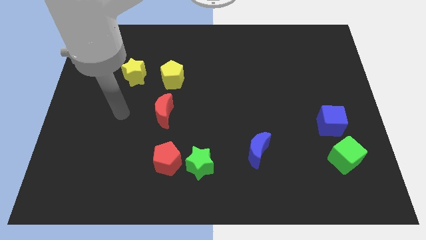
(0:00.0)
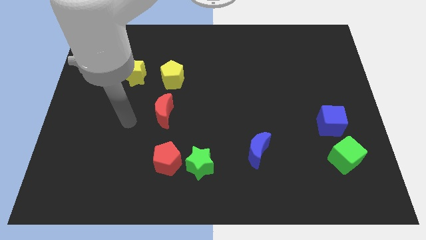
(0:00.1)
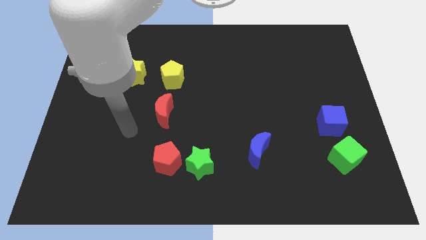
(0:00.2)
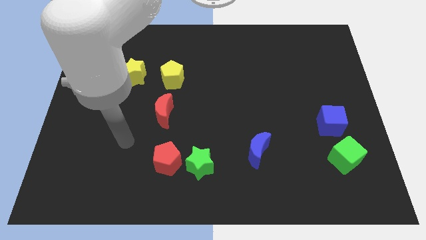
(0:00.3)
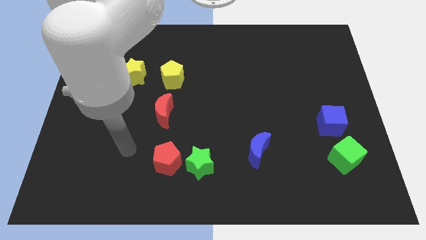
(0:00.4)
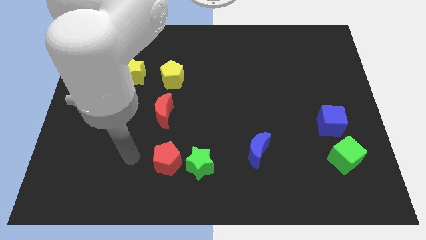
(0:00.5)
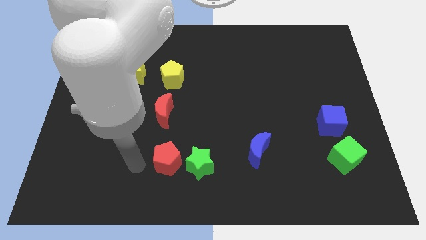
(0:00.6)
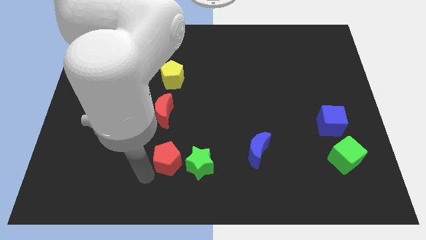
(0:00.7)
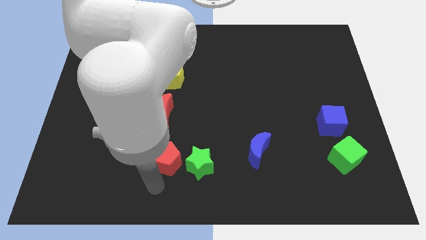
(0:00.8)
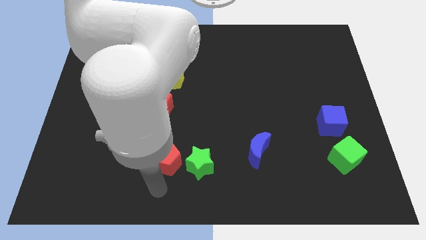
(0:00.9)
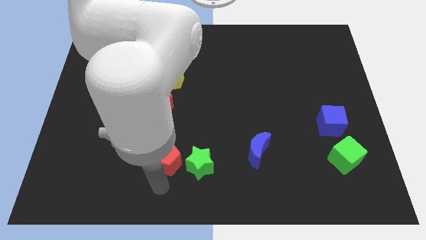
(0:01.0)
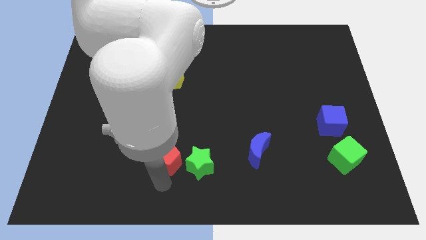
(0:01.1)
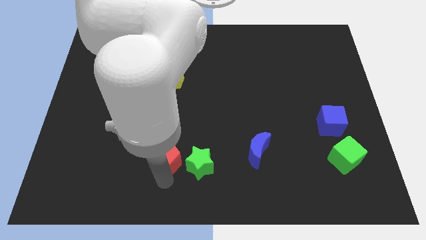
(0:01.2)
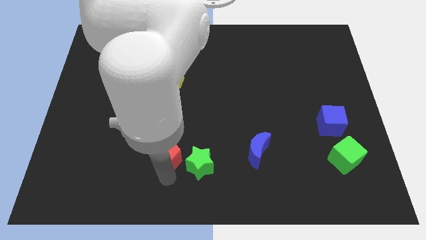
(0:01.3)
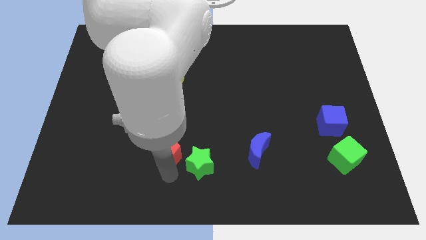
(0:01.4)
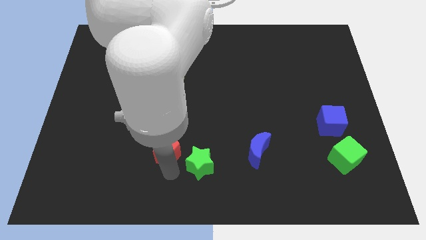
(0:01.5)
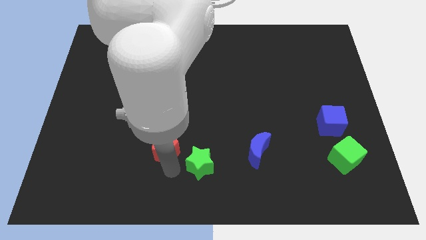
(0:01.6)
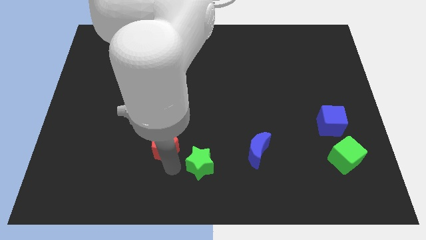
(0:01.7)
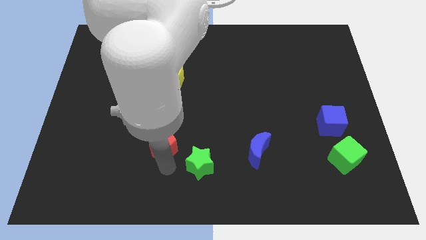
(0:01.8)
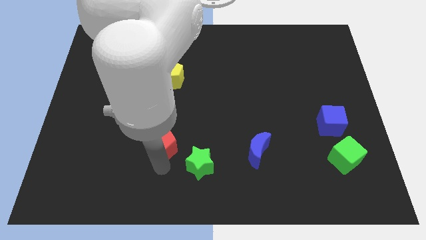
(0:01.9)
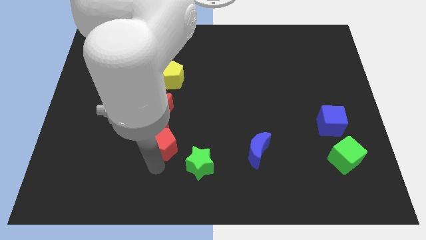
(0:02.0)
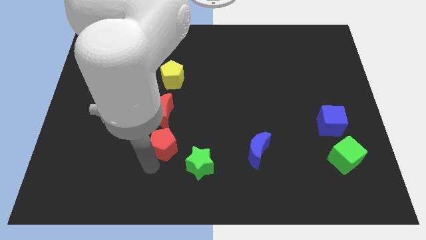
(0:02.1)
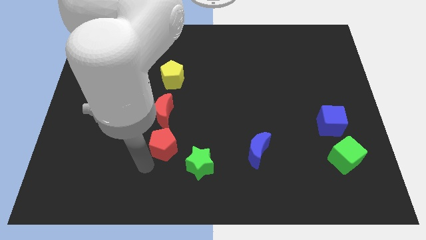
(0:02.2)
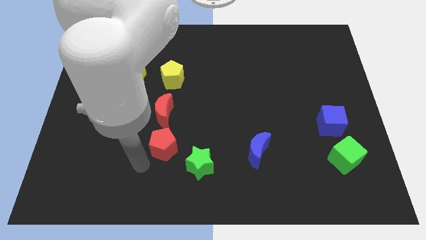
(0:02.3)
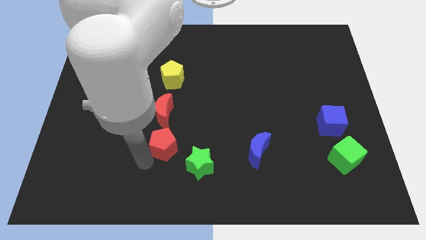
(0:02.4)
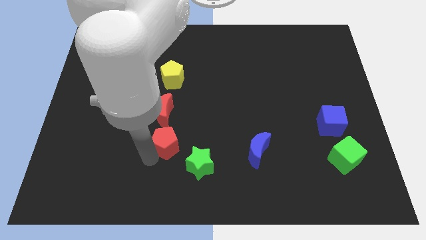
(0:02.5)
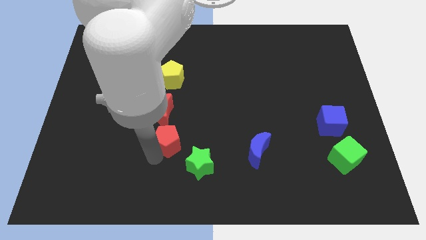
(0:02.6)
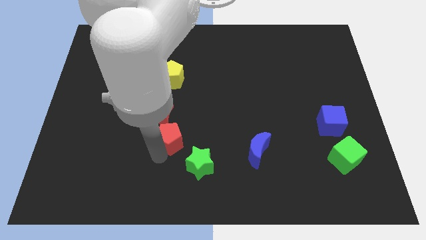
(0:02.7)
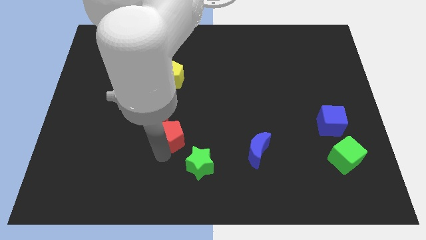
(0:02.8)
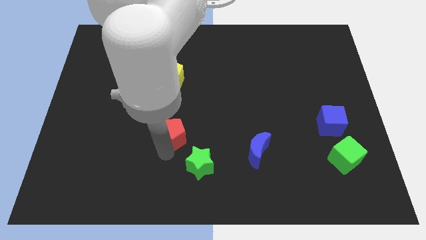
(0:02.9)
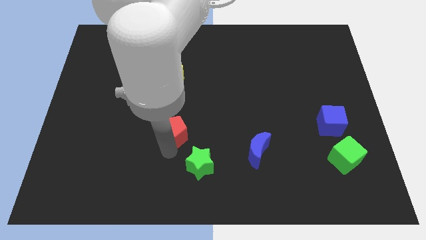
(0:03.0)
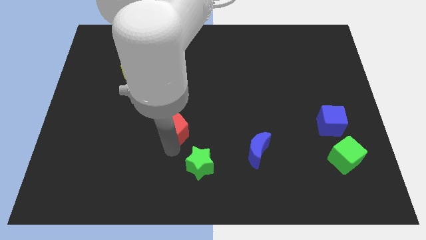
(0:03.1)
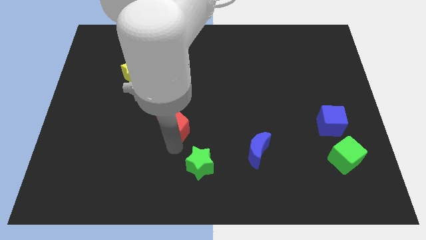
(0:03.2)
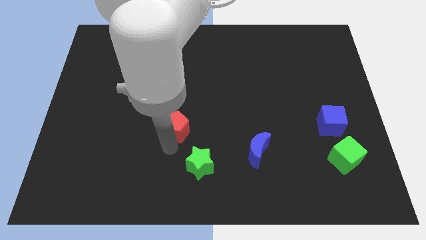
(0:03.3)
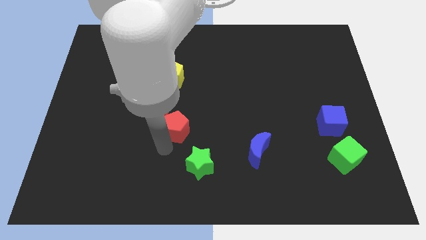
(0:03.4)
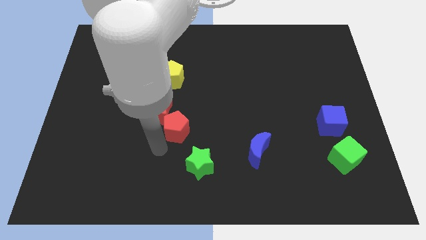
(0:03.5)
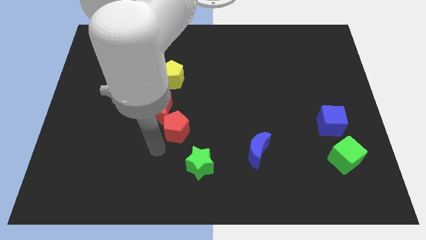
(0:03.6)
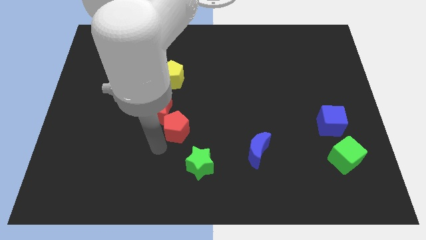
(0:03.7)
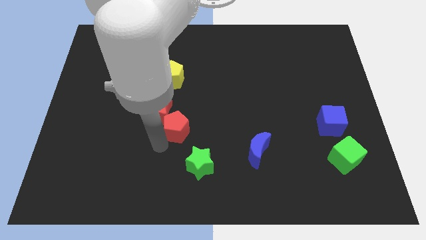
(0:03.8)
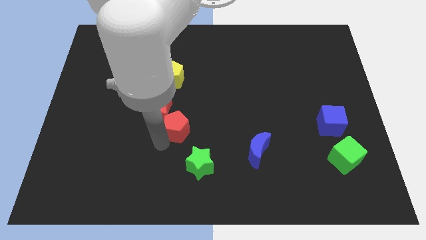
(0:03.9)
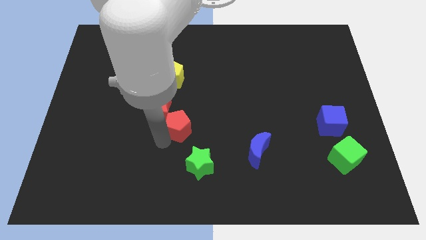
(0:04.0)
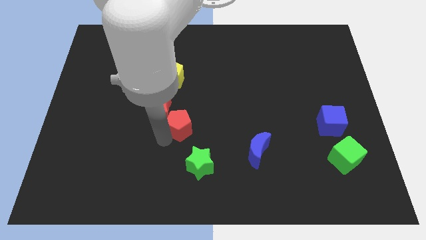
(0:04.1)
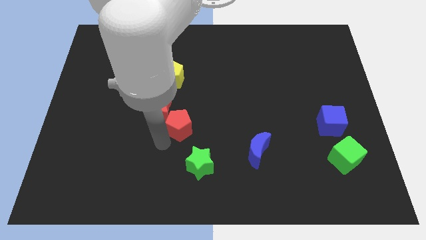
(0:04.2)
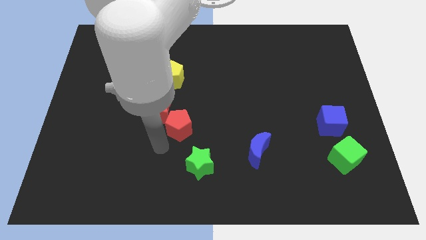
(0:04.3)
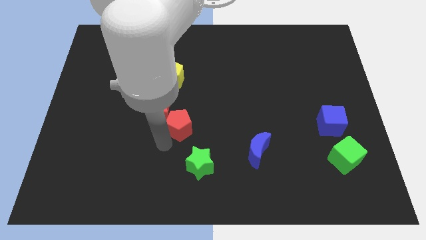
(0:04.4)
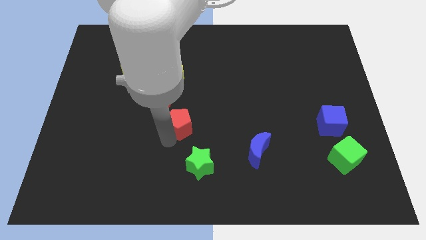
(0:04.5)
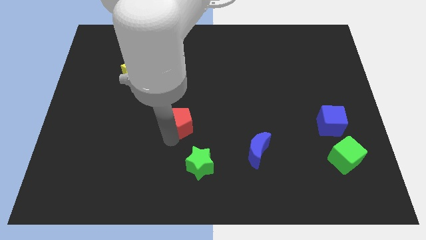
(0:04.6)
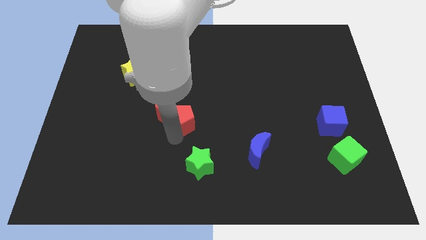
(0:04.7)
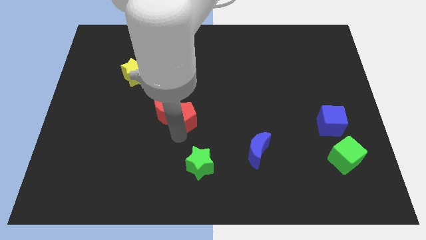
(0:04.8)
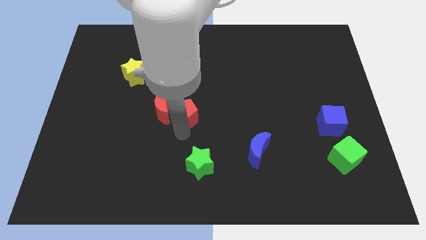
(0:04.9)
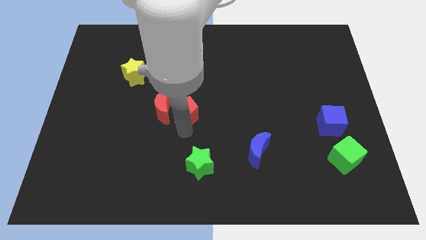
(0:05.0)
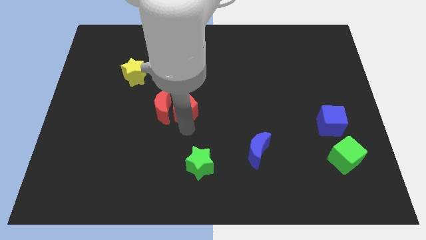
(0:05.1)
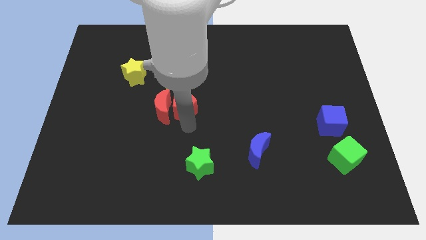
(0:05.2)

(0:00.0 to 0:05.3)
slide the red pentagon to the bottom right side of the yellow pentagon

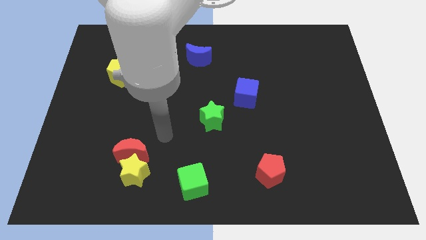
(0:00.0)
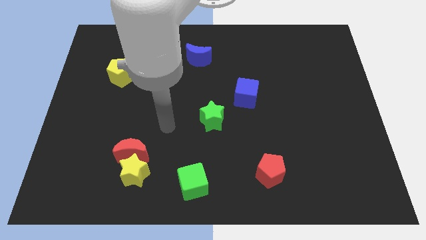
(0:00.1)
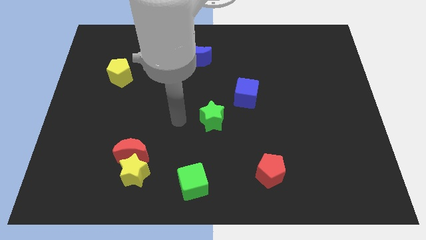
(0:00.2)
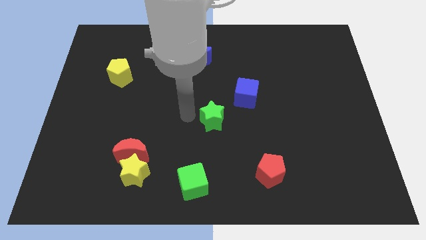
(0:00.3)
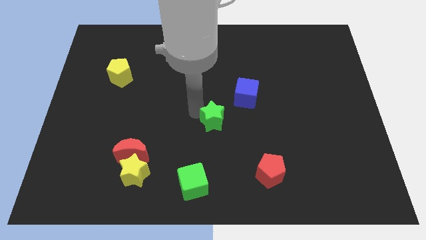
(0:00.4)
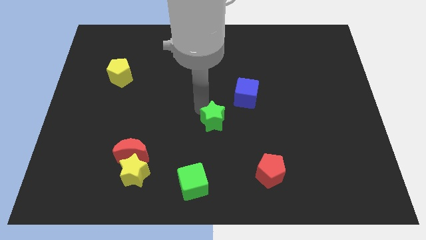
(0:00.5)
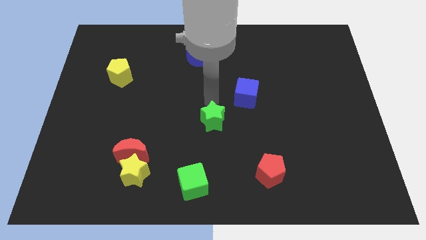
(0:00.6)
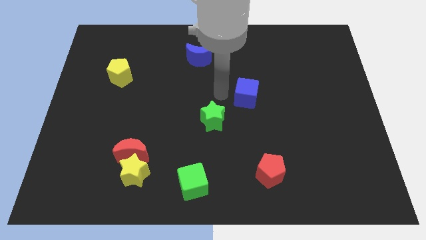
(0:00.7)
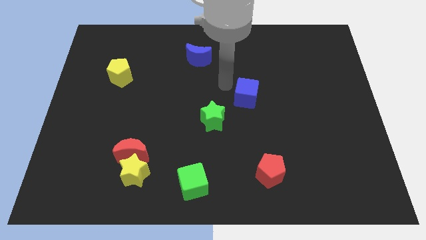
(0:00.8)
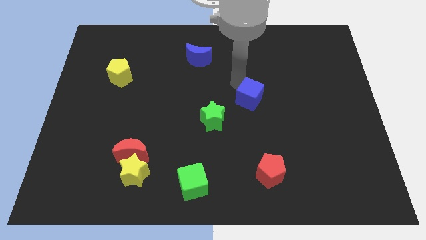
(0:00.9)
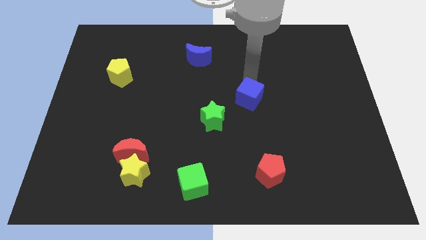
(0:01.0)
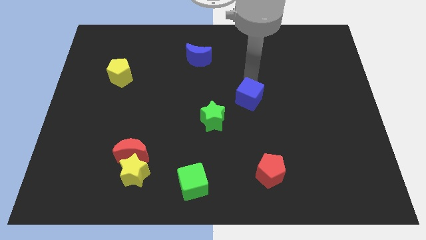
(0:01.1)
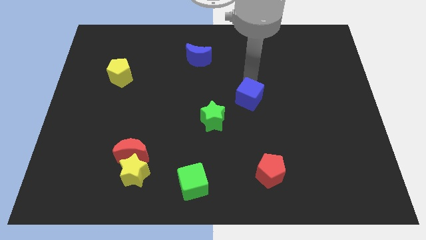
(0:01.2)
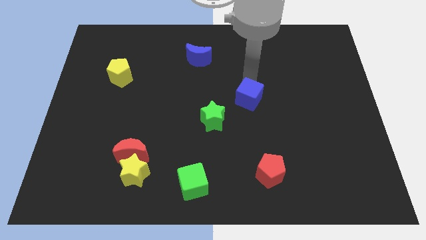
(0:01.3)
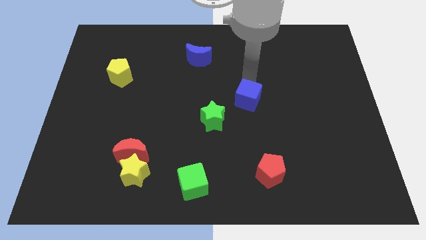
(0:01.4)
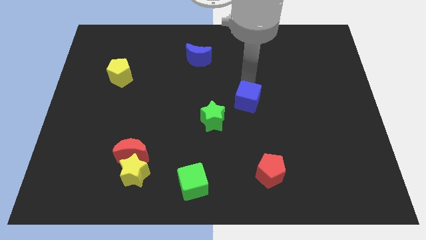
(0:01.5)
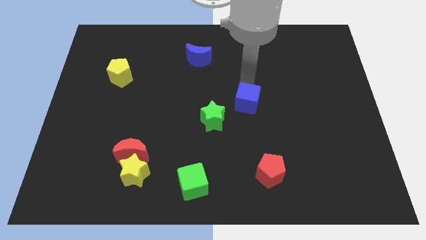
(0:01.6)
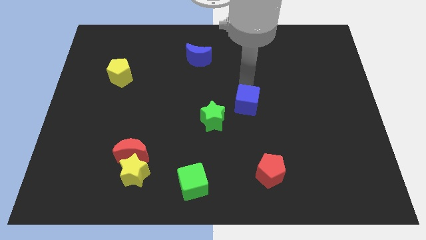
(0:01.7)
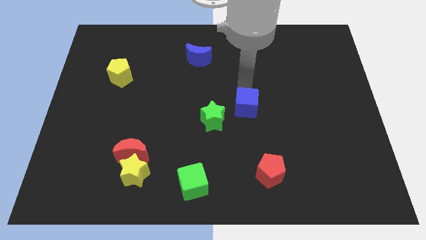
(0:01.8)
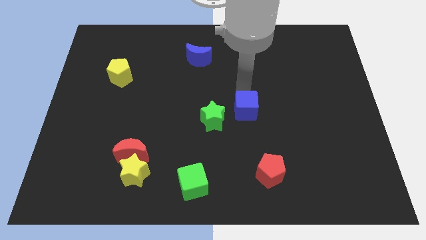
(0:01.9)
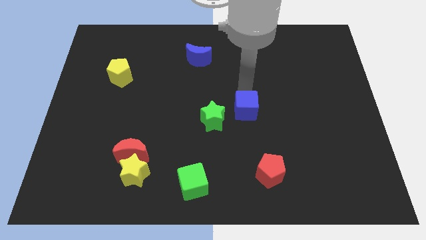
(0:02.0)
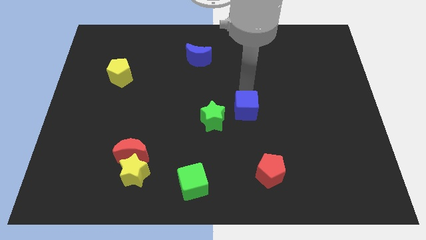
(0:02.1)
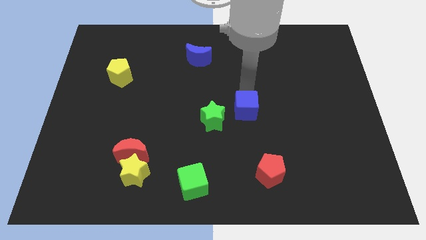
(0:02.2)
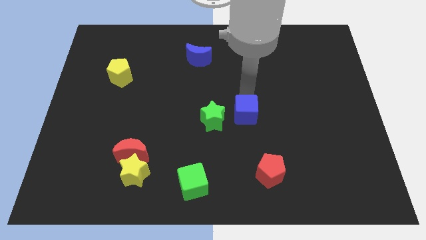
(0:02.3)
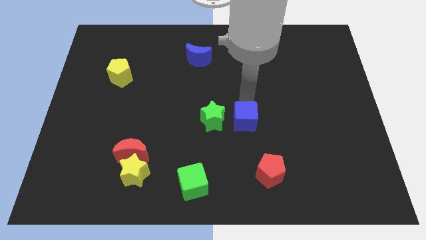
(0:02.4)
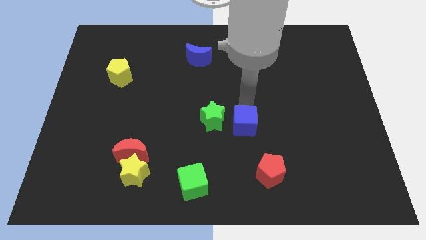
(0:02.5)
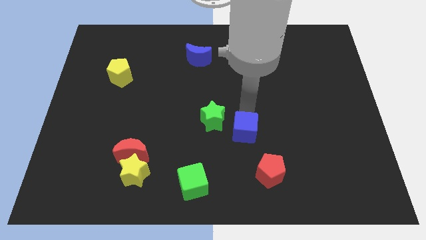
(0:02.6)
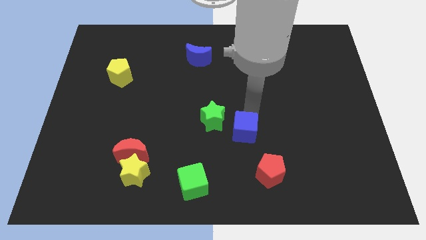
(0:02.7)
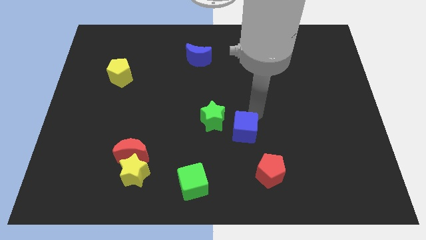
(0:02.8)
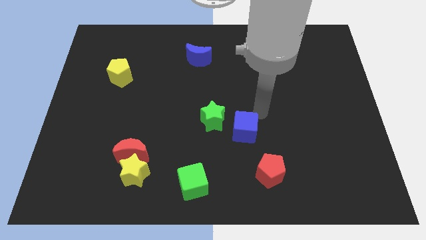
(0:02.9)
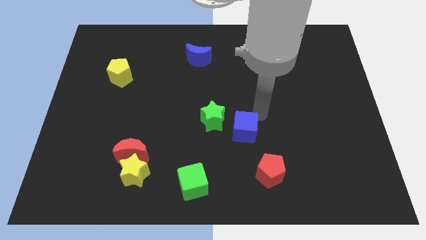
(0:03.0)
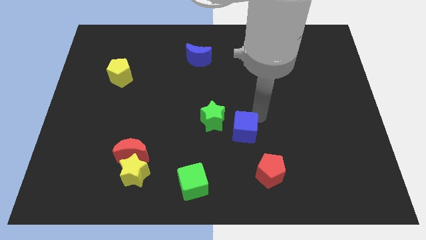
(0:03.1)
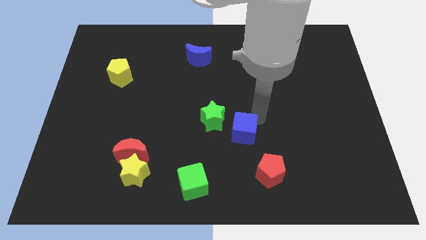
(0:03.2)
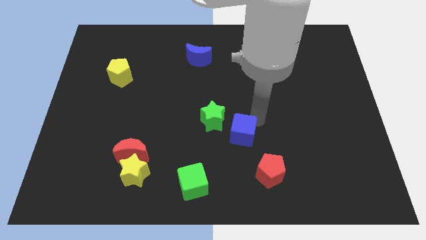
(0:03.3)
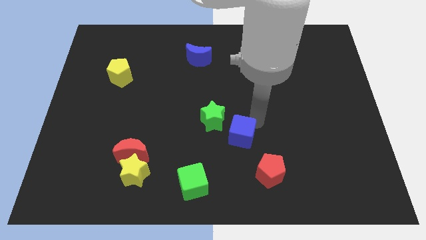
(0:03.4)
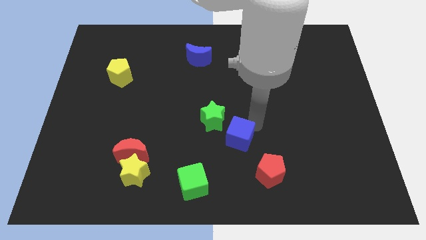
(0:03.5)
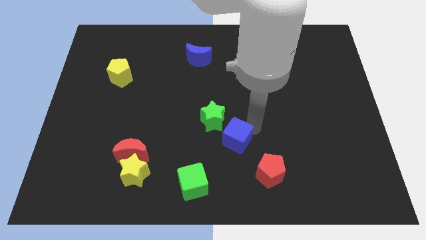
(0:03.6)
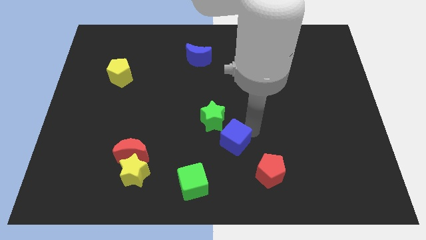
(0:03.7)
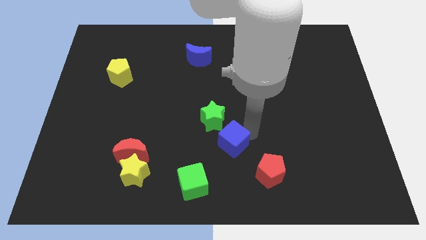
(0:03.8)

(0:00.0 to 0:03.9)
put the blue cube to the top right of the green cube
